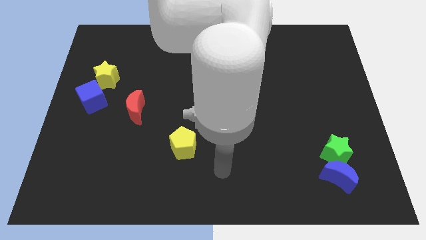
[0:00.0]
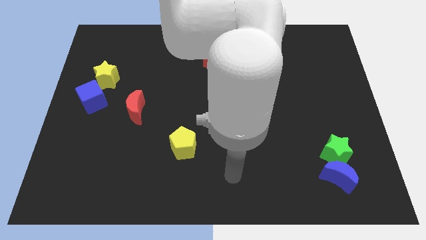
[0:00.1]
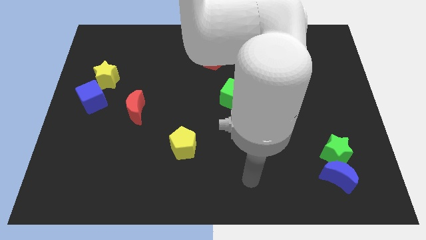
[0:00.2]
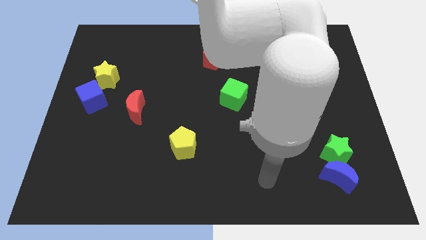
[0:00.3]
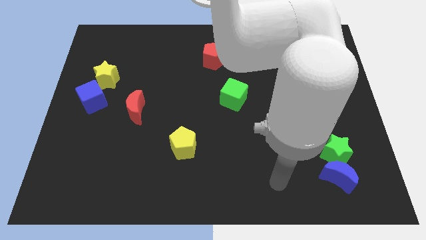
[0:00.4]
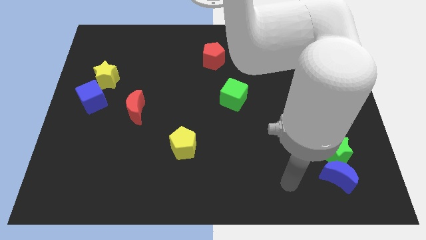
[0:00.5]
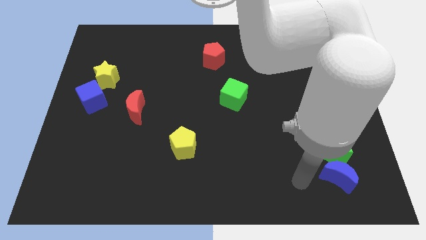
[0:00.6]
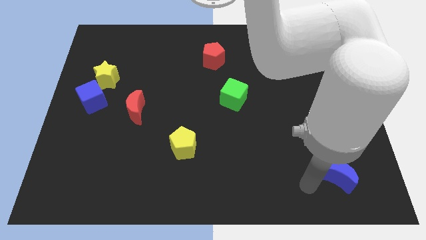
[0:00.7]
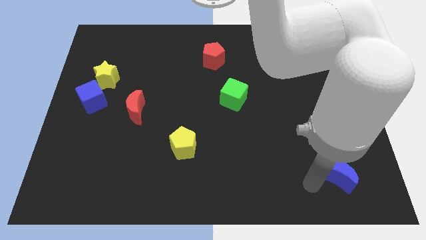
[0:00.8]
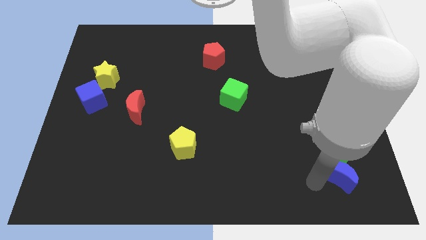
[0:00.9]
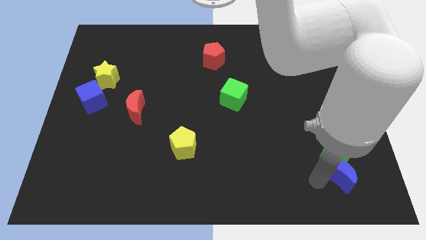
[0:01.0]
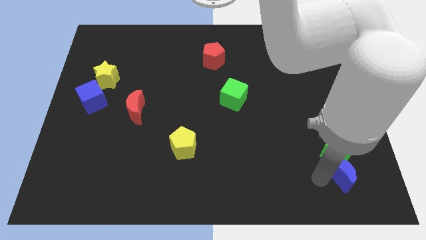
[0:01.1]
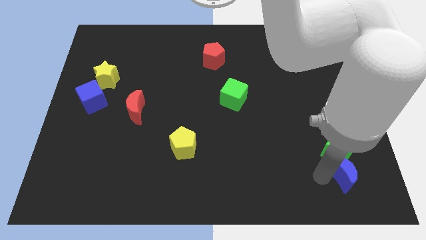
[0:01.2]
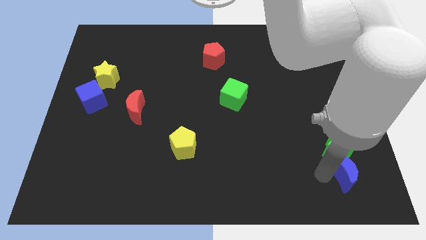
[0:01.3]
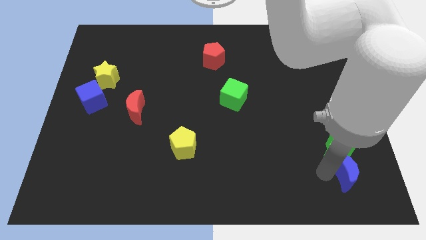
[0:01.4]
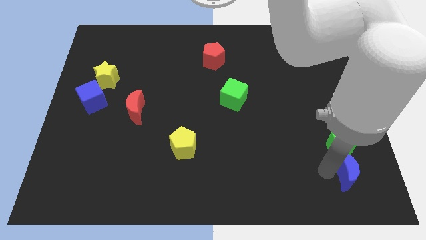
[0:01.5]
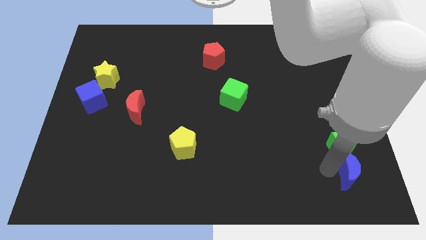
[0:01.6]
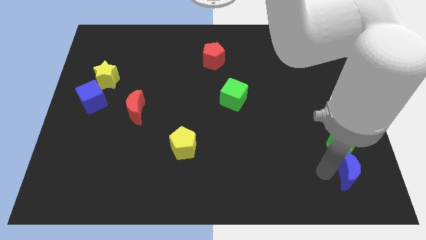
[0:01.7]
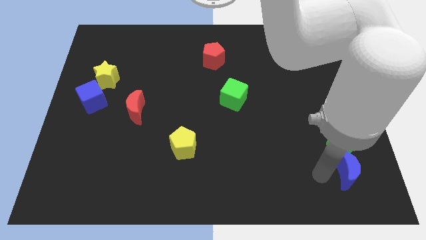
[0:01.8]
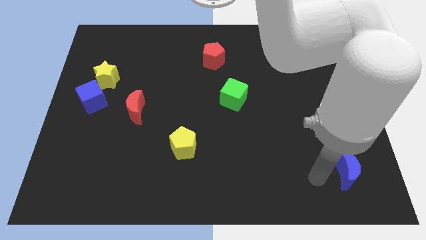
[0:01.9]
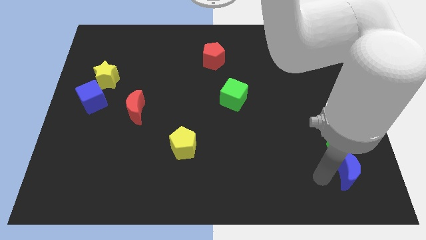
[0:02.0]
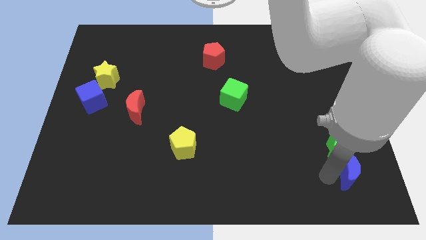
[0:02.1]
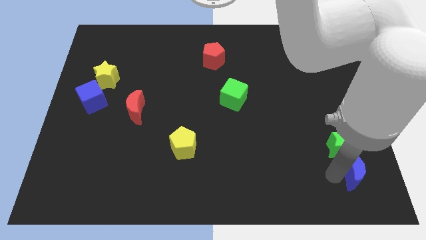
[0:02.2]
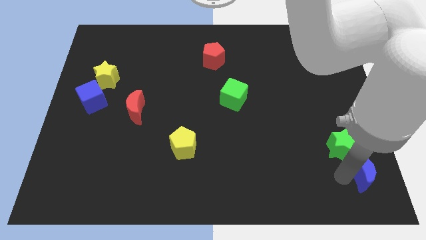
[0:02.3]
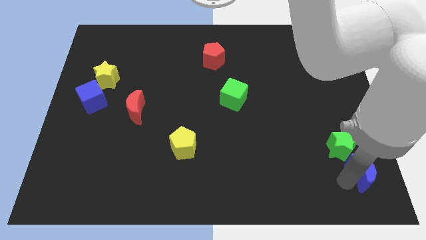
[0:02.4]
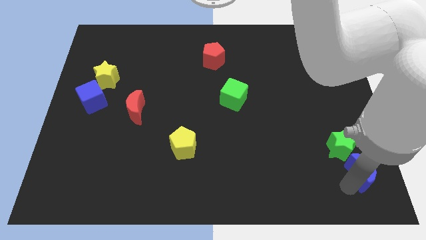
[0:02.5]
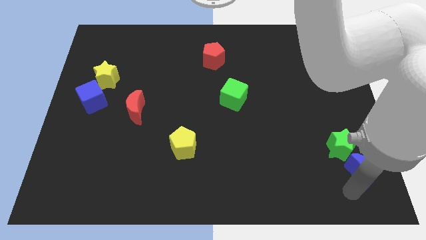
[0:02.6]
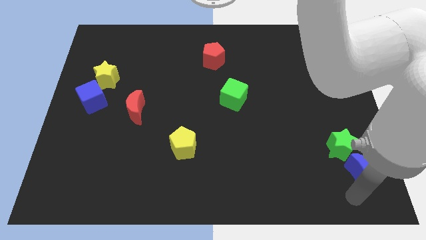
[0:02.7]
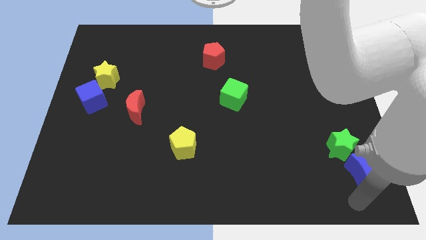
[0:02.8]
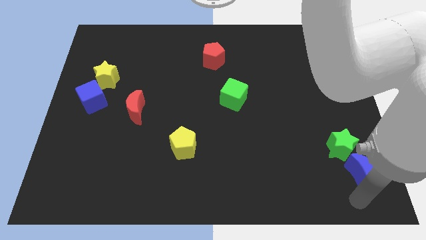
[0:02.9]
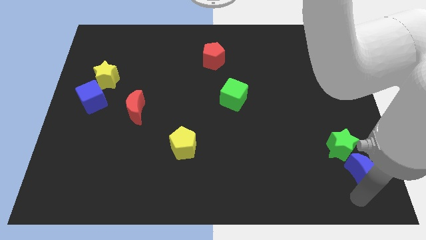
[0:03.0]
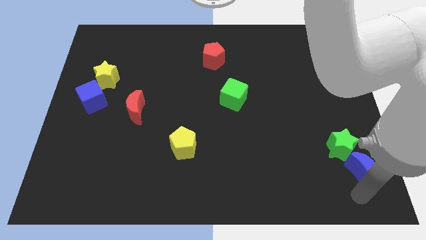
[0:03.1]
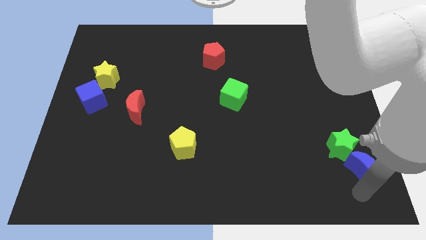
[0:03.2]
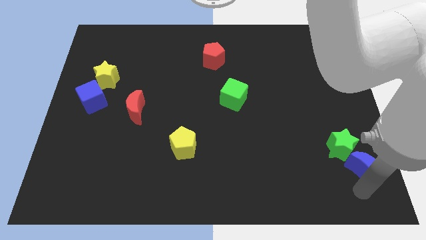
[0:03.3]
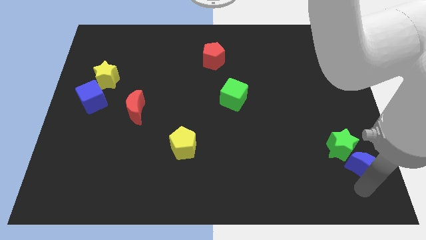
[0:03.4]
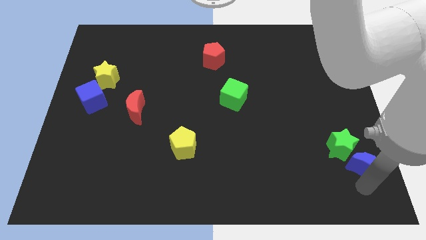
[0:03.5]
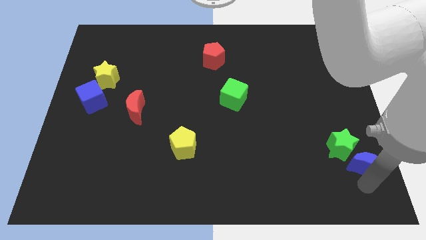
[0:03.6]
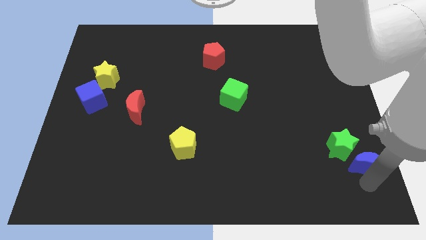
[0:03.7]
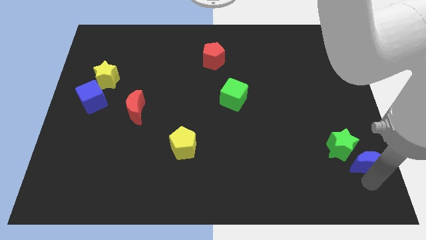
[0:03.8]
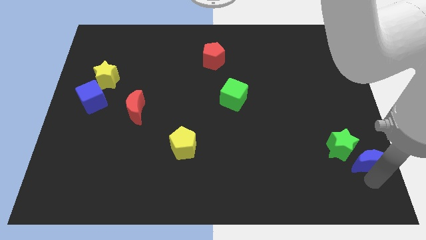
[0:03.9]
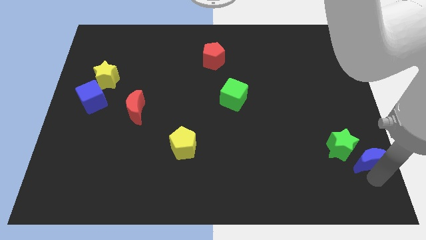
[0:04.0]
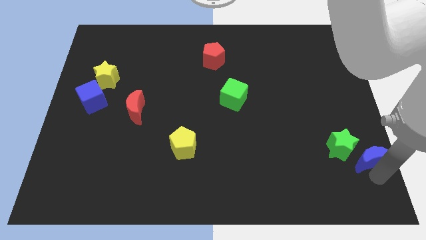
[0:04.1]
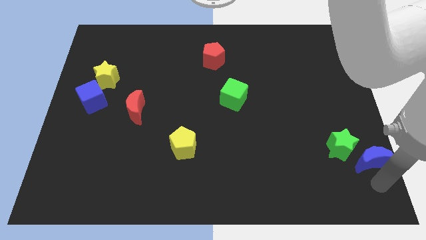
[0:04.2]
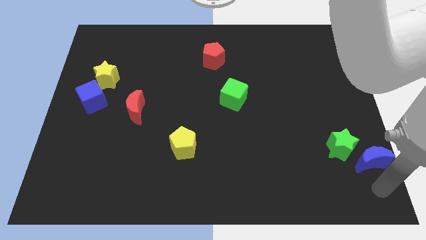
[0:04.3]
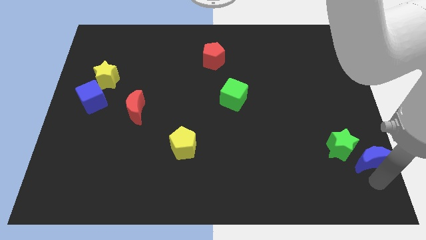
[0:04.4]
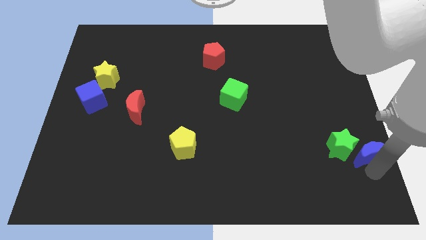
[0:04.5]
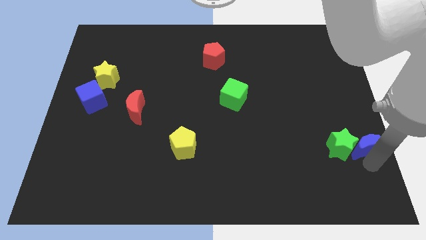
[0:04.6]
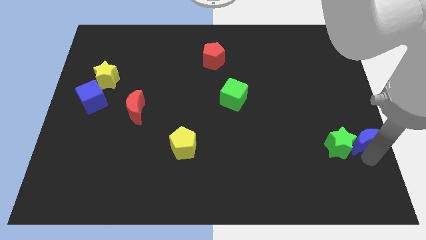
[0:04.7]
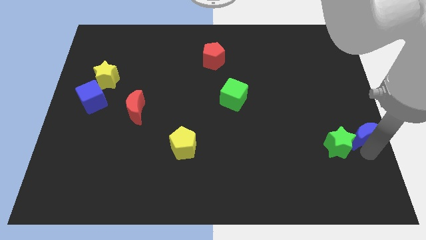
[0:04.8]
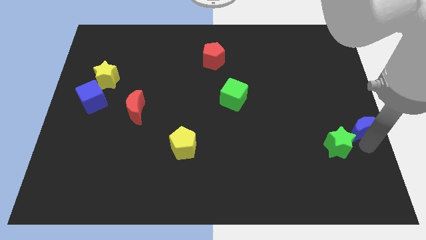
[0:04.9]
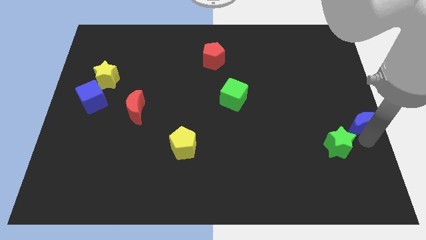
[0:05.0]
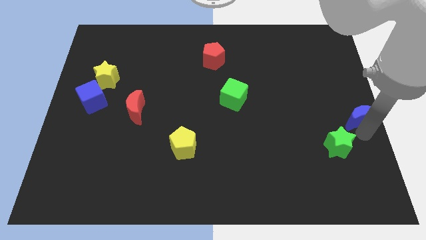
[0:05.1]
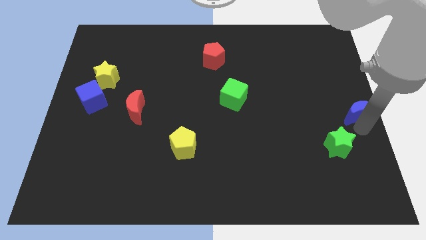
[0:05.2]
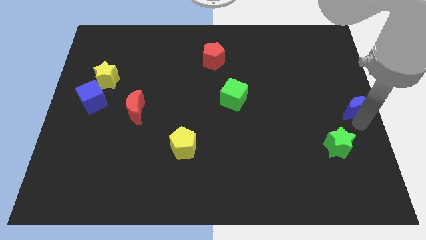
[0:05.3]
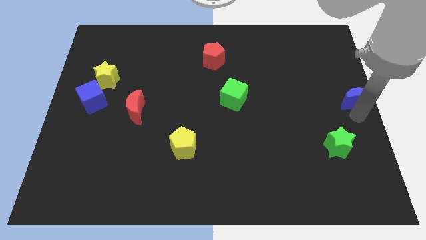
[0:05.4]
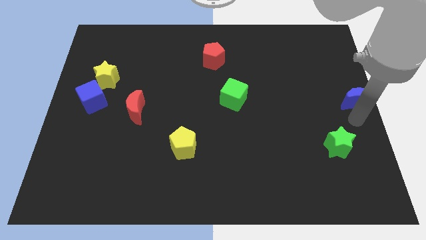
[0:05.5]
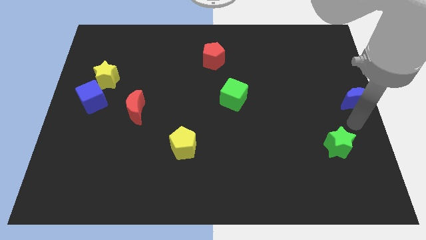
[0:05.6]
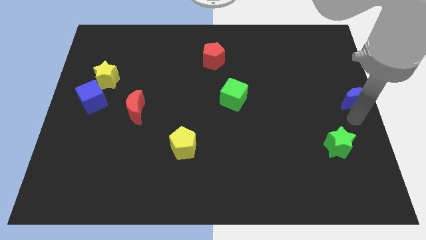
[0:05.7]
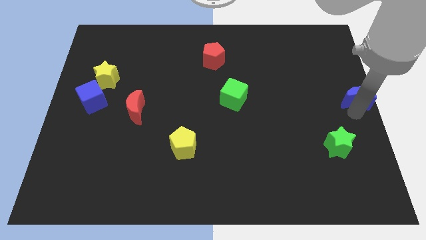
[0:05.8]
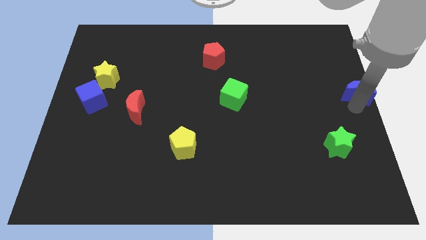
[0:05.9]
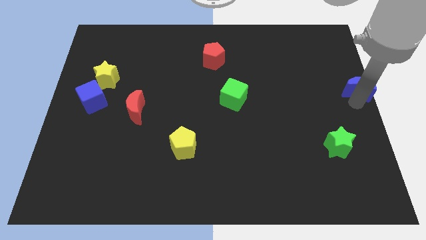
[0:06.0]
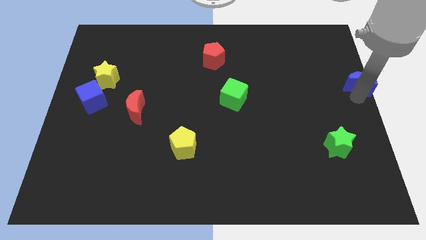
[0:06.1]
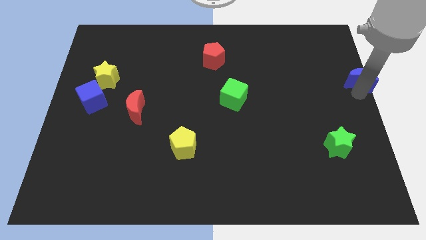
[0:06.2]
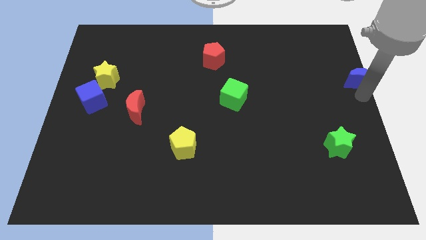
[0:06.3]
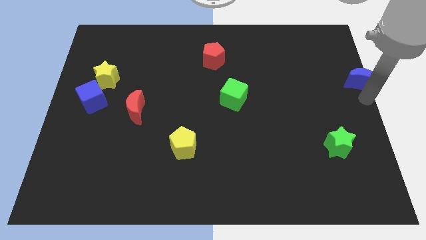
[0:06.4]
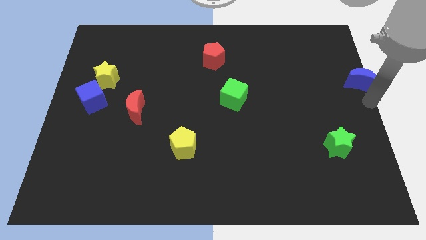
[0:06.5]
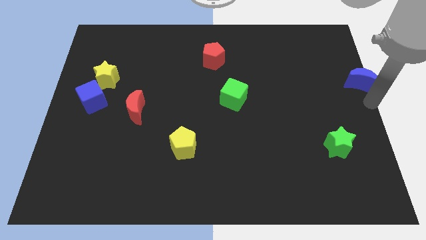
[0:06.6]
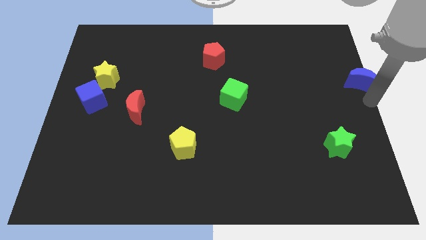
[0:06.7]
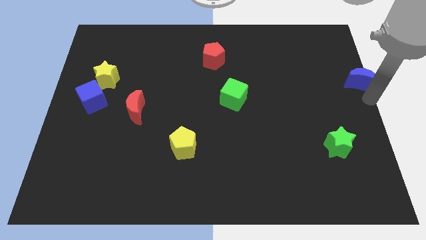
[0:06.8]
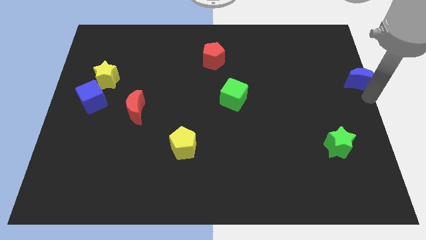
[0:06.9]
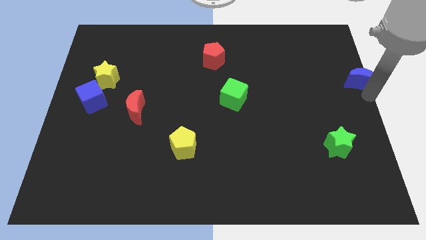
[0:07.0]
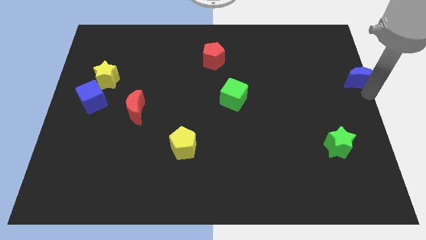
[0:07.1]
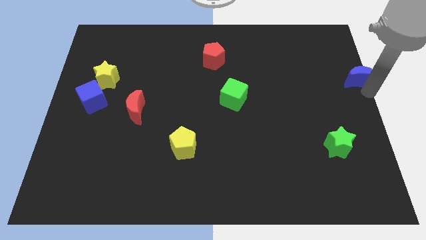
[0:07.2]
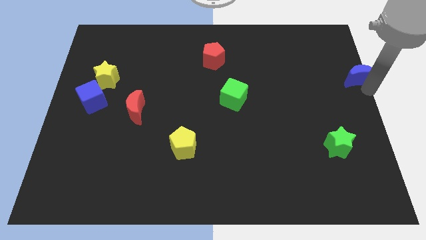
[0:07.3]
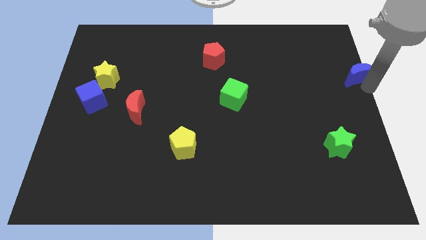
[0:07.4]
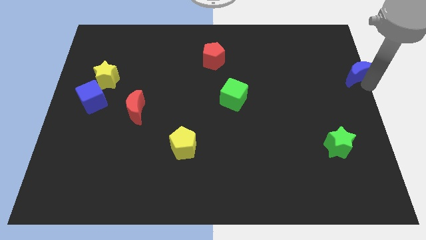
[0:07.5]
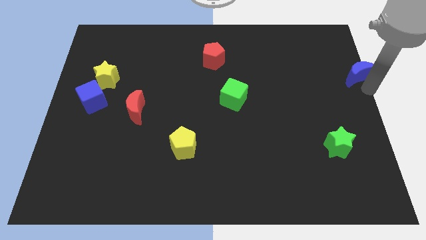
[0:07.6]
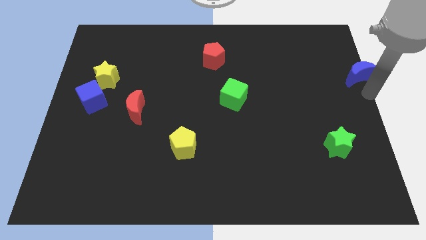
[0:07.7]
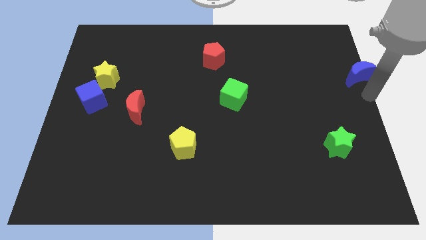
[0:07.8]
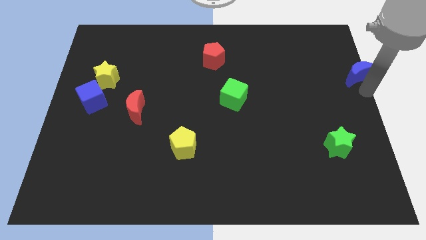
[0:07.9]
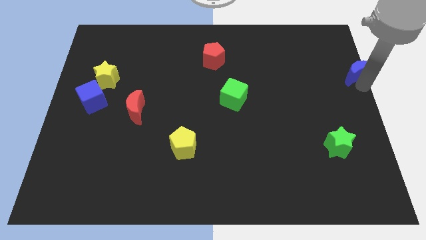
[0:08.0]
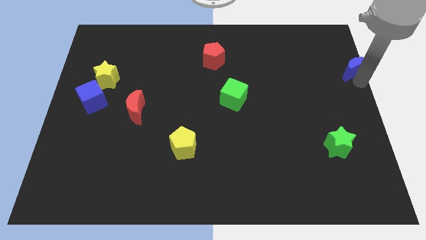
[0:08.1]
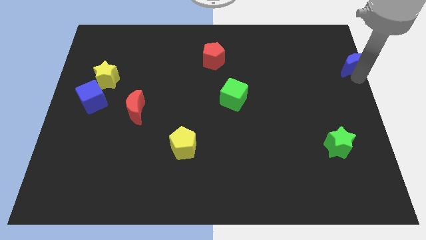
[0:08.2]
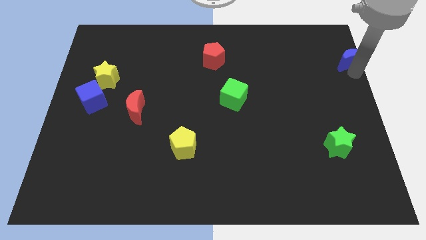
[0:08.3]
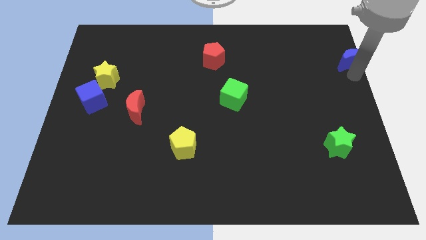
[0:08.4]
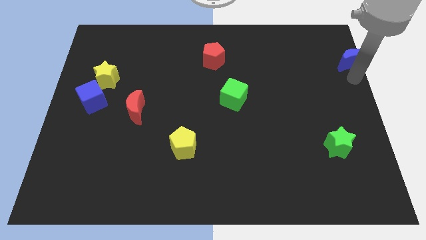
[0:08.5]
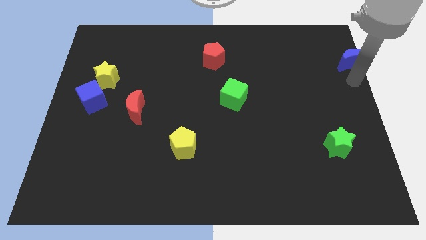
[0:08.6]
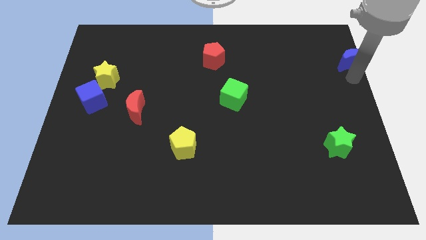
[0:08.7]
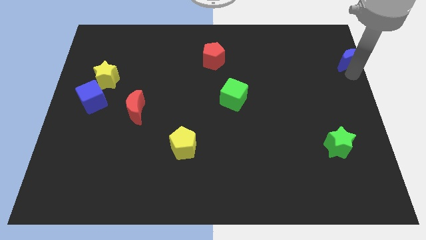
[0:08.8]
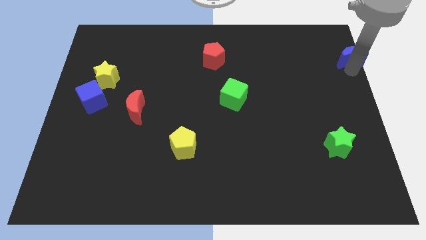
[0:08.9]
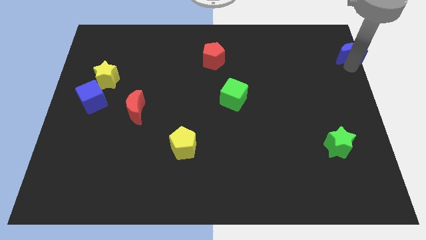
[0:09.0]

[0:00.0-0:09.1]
move the blue moon to the top right
